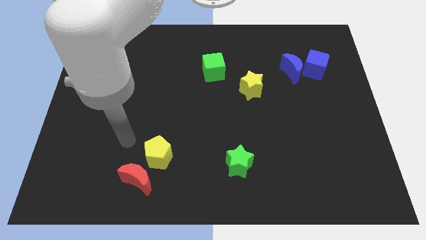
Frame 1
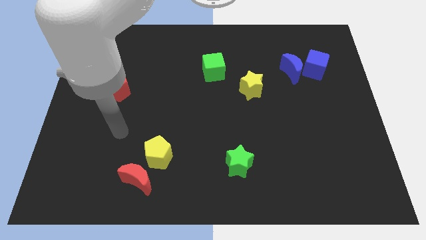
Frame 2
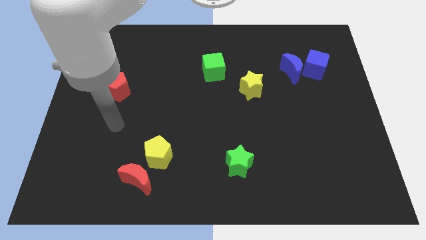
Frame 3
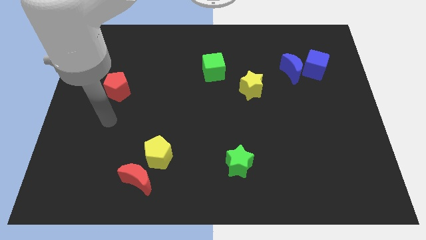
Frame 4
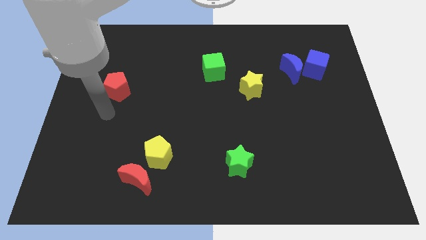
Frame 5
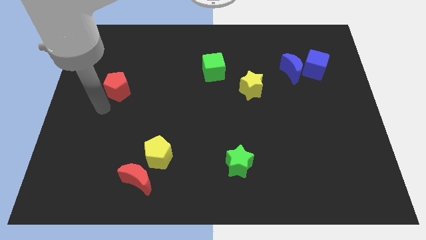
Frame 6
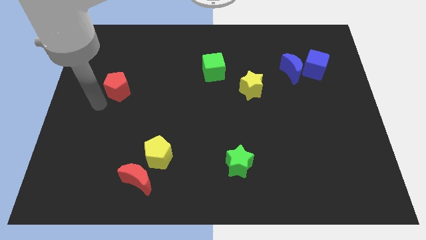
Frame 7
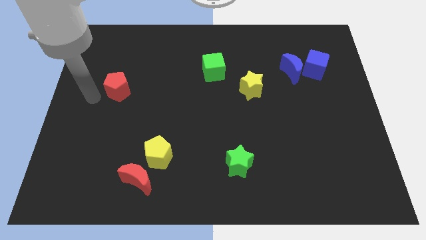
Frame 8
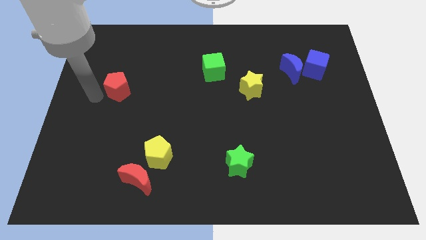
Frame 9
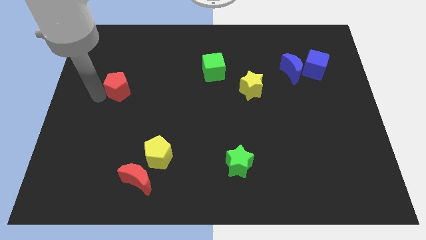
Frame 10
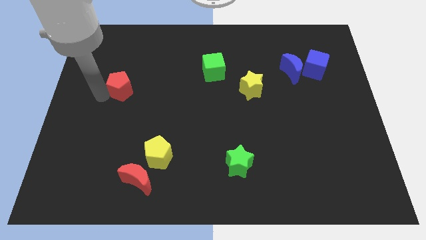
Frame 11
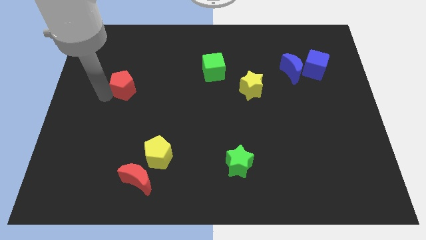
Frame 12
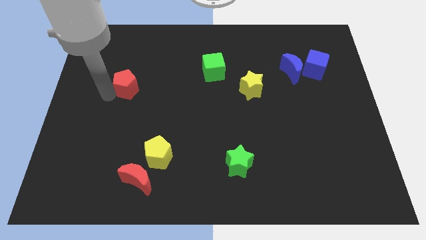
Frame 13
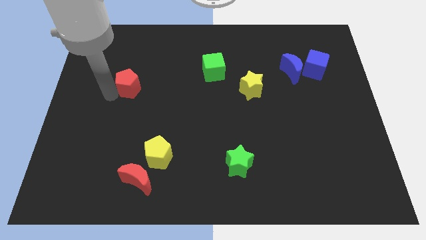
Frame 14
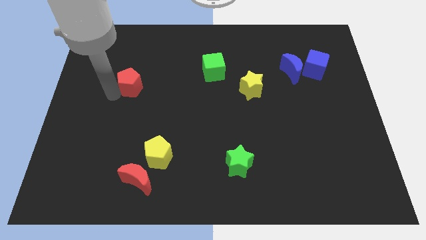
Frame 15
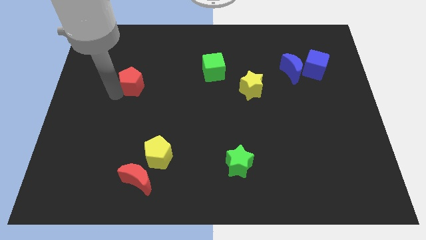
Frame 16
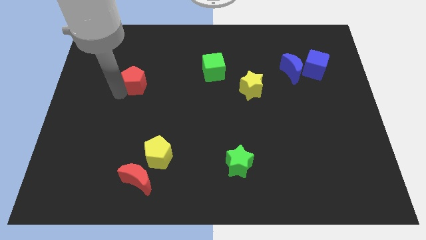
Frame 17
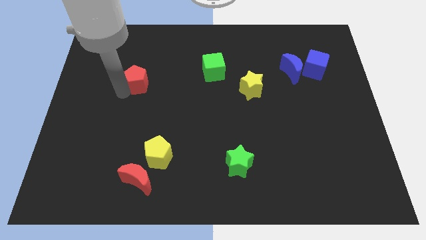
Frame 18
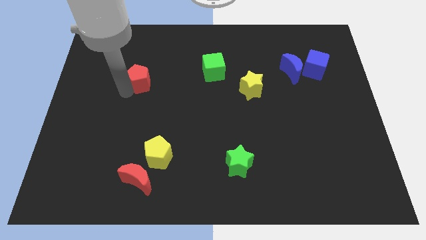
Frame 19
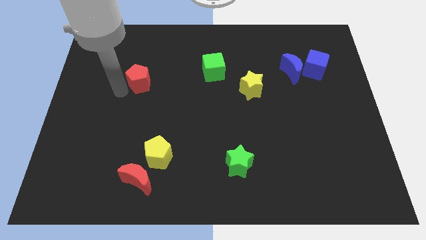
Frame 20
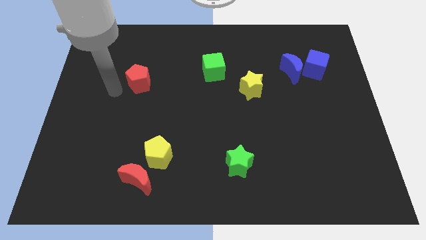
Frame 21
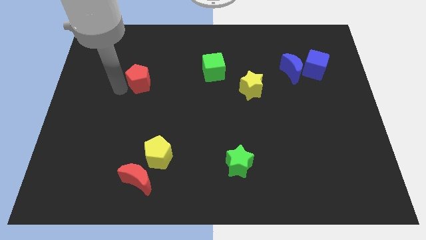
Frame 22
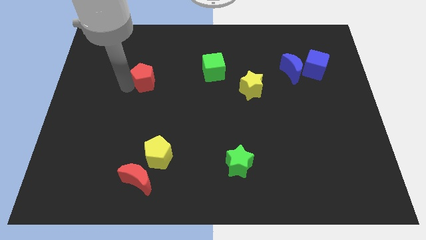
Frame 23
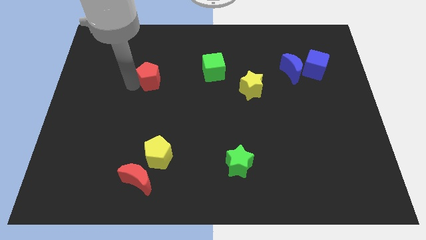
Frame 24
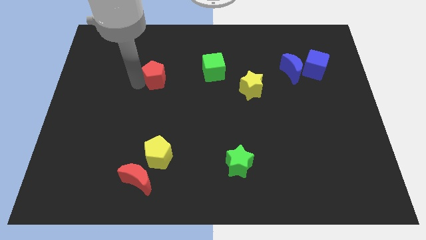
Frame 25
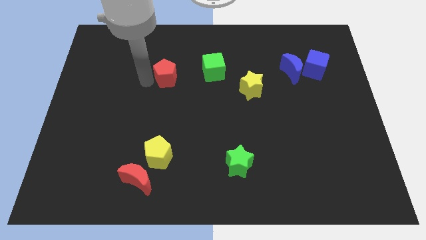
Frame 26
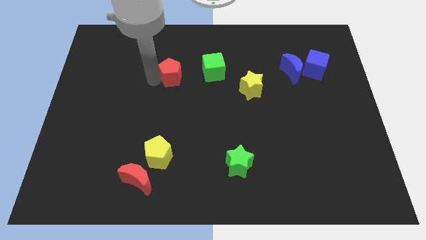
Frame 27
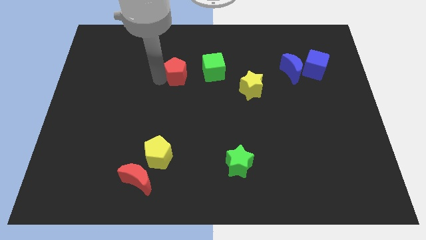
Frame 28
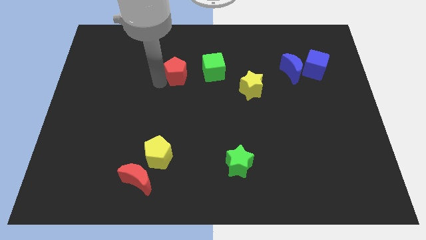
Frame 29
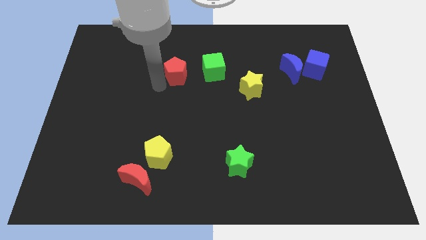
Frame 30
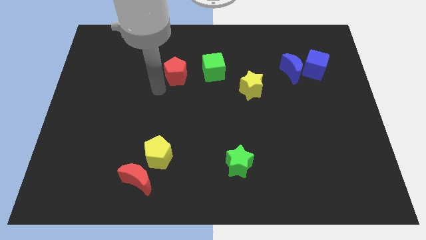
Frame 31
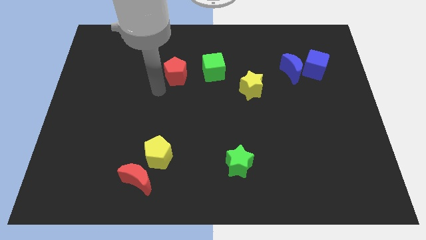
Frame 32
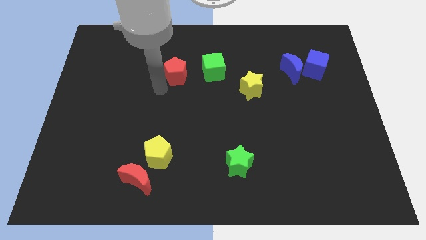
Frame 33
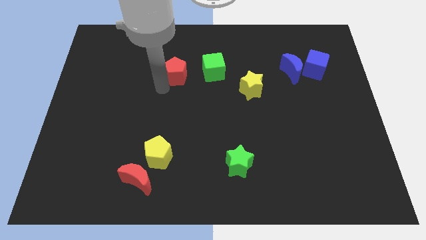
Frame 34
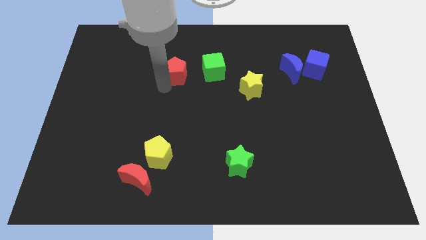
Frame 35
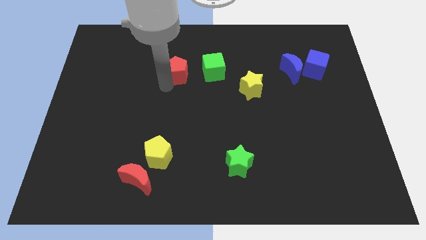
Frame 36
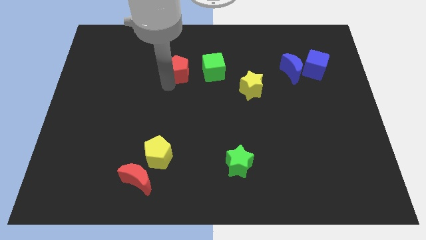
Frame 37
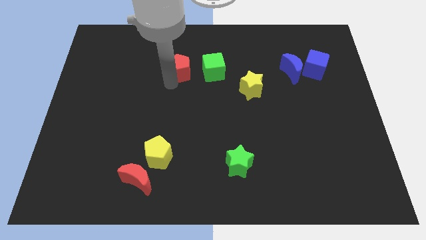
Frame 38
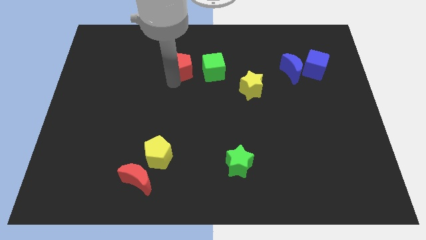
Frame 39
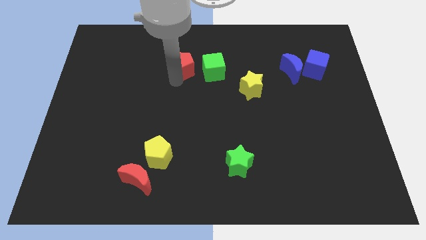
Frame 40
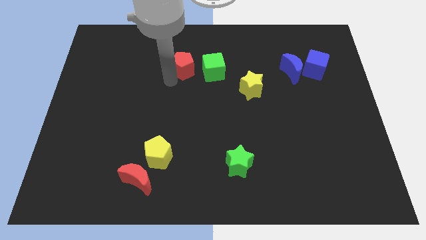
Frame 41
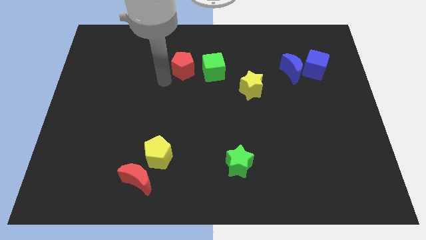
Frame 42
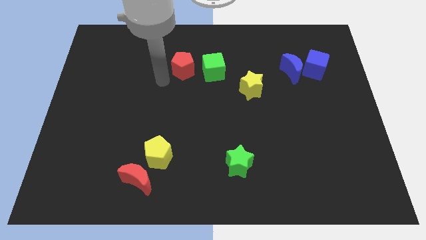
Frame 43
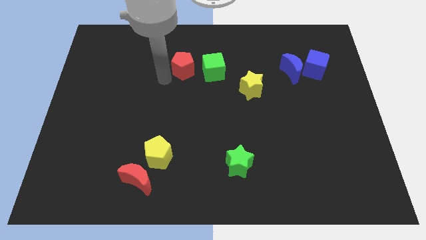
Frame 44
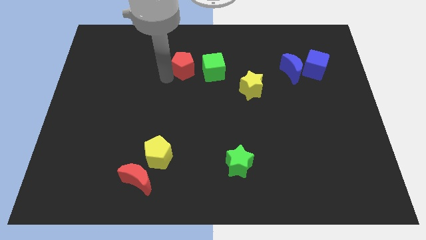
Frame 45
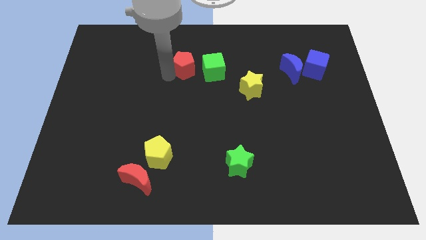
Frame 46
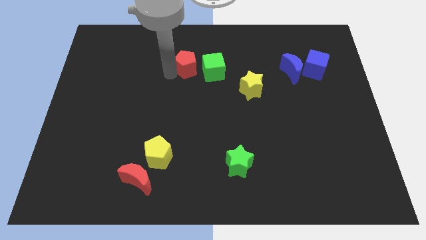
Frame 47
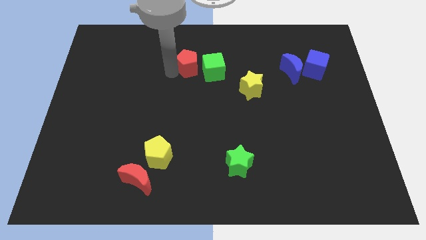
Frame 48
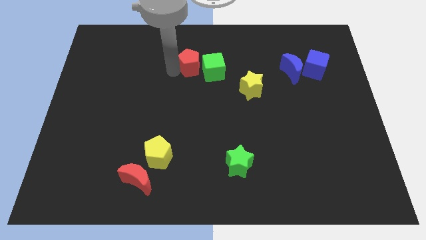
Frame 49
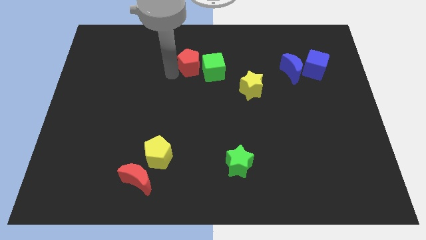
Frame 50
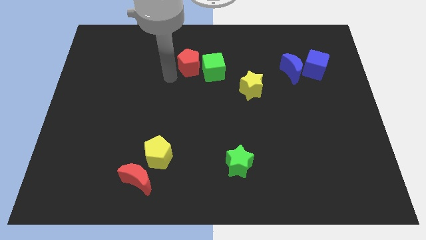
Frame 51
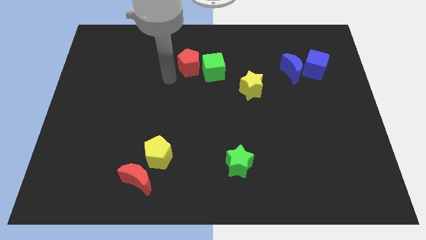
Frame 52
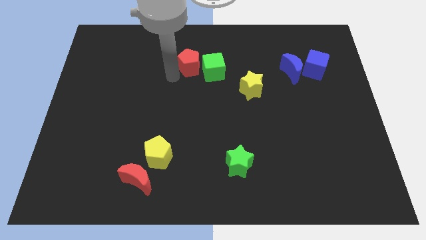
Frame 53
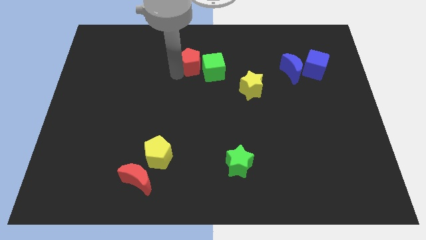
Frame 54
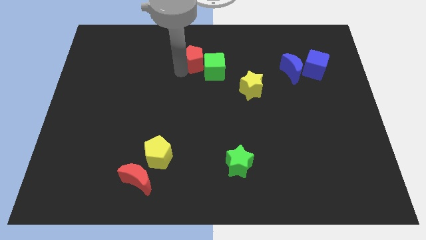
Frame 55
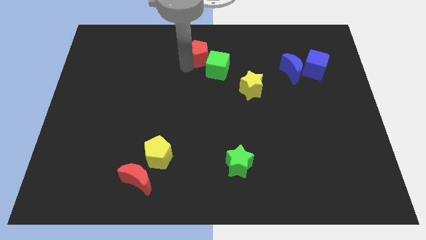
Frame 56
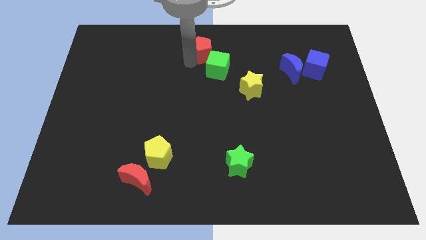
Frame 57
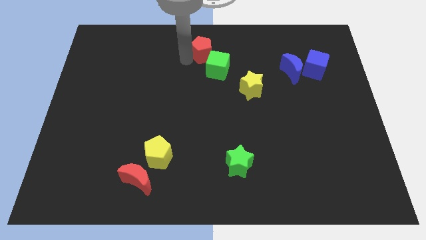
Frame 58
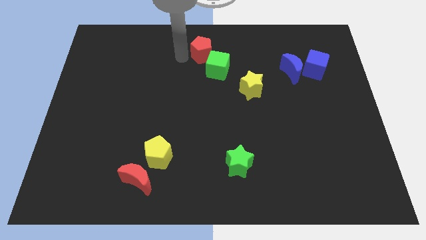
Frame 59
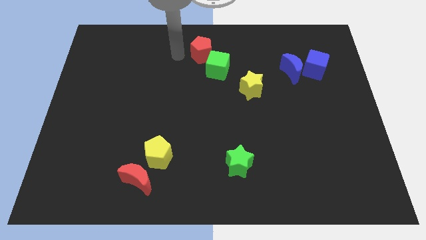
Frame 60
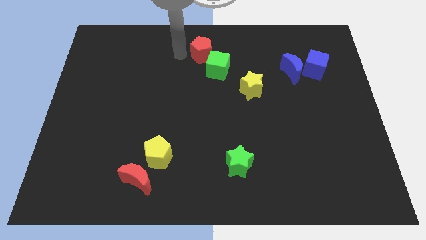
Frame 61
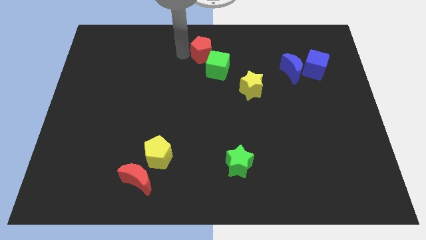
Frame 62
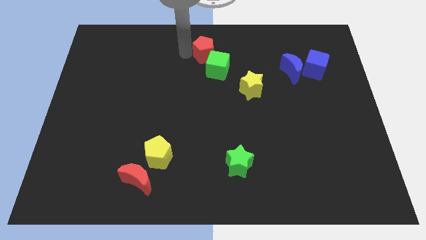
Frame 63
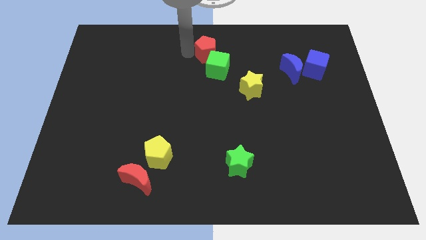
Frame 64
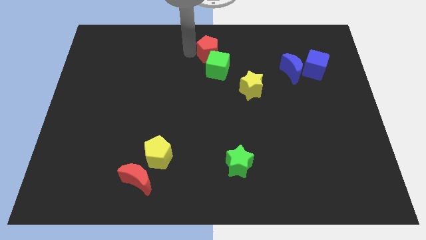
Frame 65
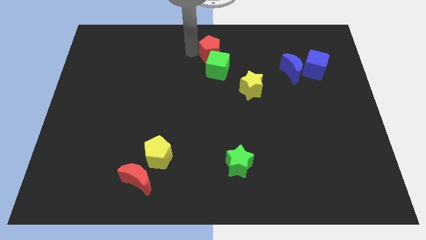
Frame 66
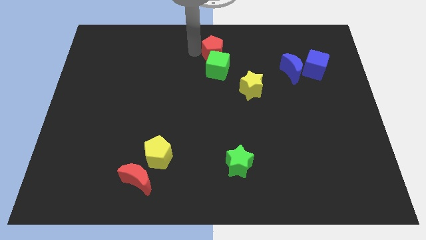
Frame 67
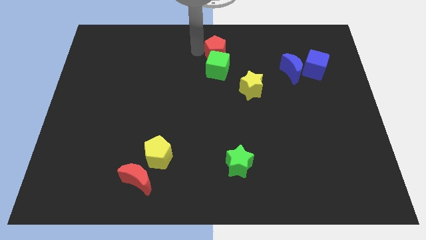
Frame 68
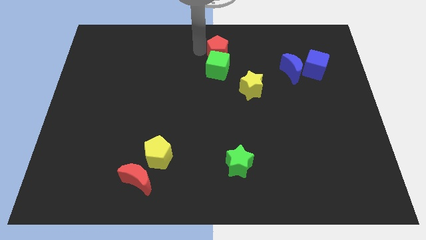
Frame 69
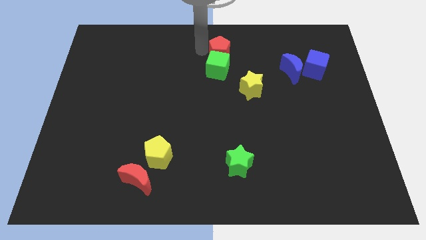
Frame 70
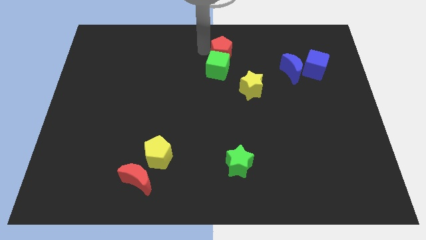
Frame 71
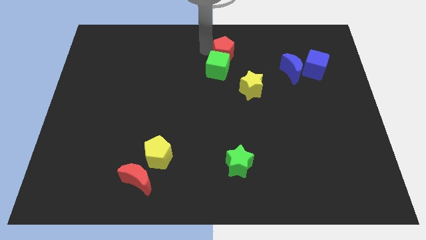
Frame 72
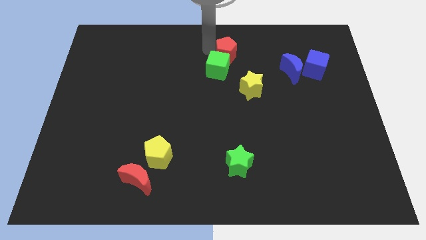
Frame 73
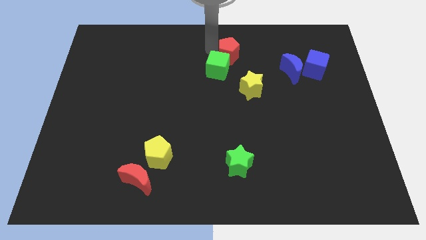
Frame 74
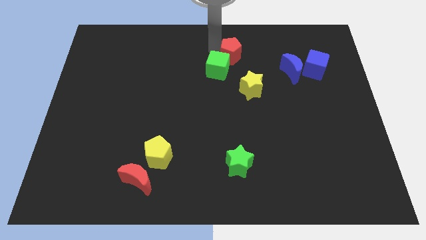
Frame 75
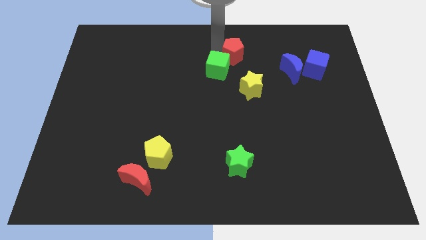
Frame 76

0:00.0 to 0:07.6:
put the red pentagon above the yellow star

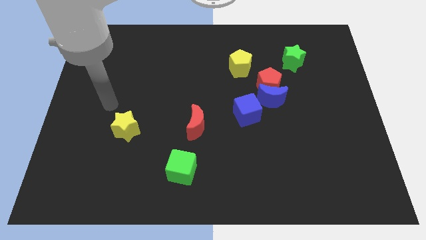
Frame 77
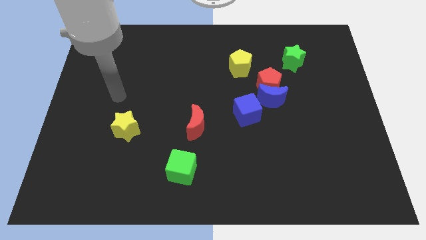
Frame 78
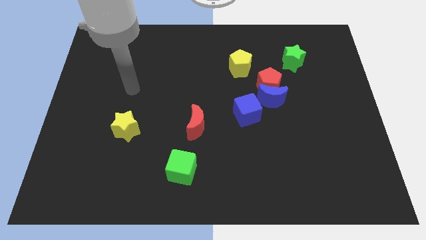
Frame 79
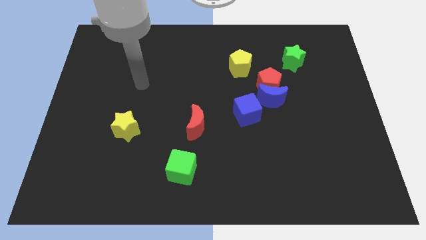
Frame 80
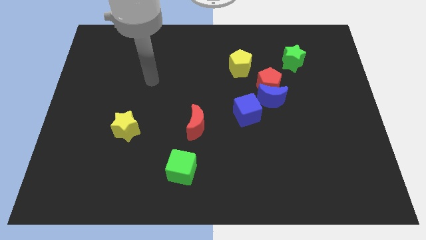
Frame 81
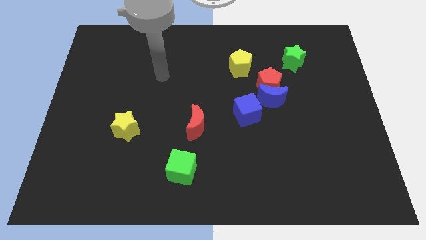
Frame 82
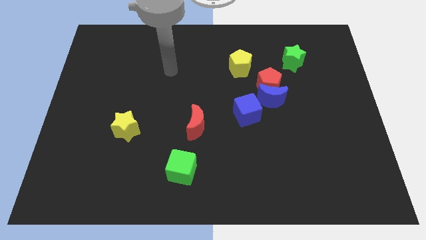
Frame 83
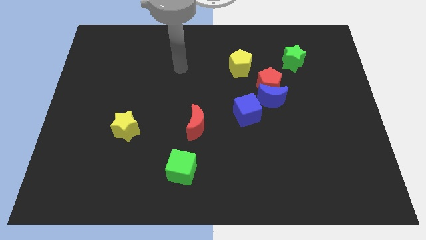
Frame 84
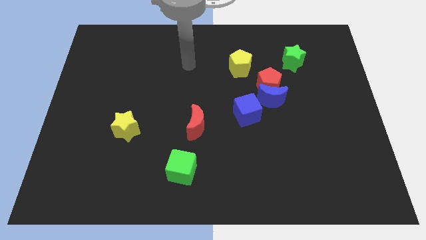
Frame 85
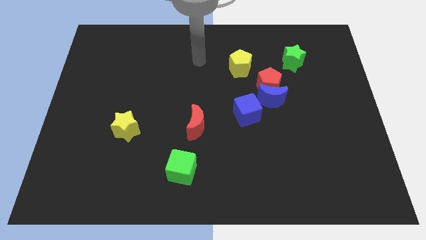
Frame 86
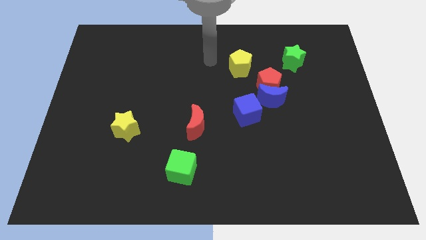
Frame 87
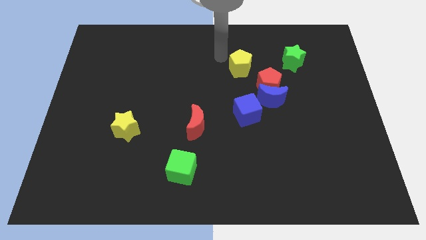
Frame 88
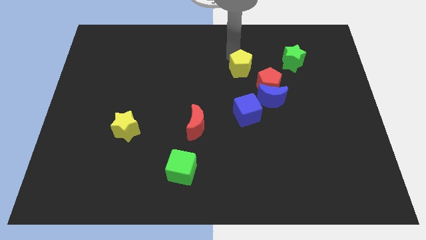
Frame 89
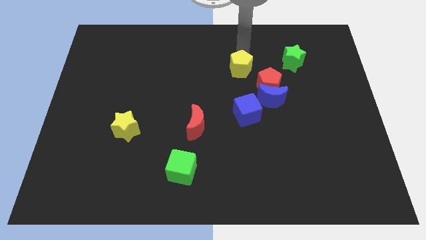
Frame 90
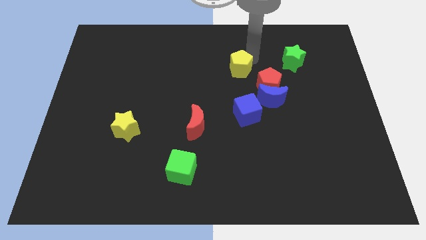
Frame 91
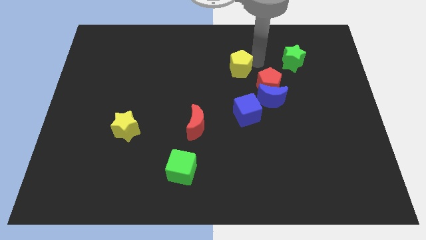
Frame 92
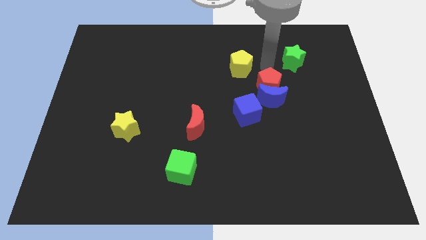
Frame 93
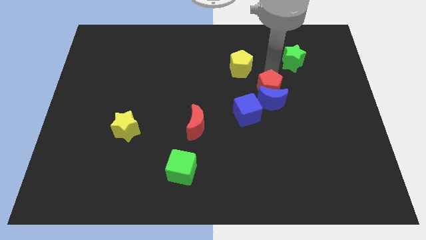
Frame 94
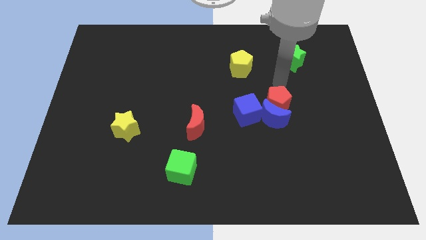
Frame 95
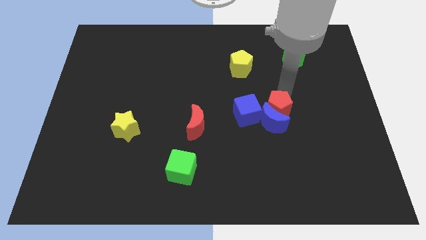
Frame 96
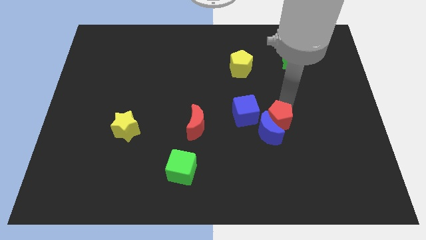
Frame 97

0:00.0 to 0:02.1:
push the blue moon to the bottom of the blue cube
